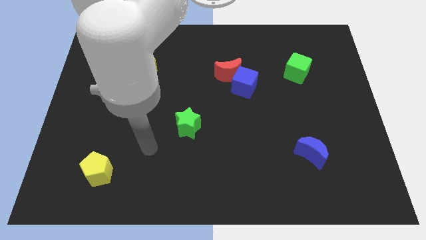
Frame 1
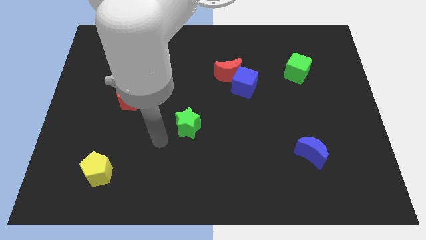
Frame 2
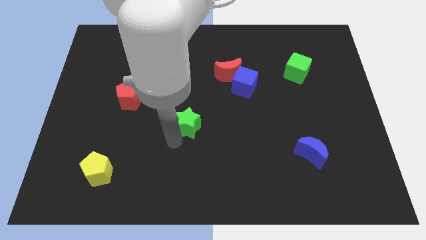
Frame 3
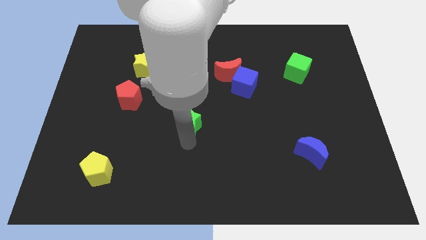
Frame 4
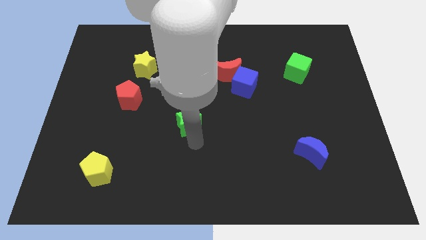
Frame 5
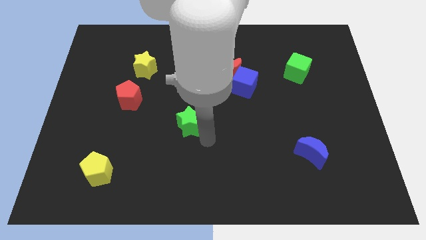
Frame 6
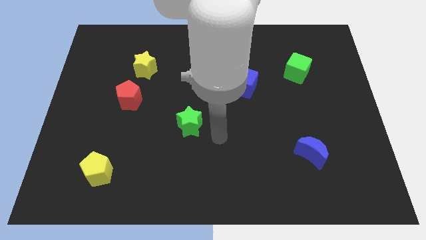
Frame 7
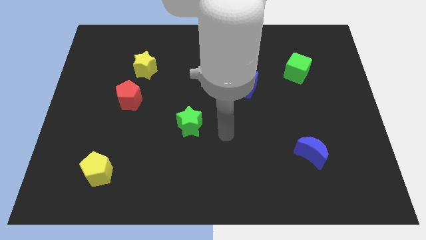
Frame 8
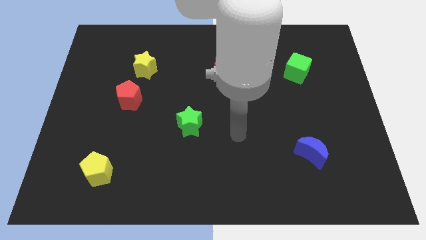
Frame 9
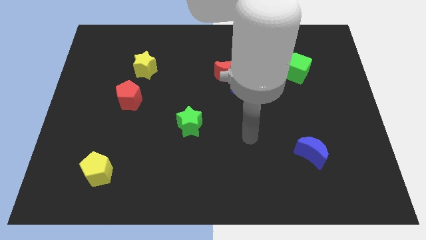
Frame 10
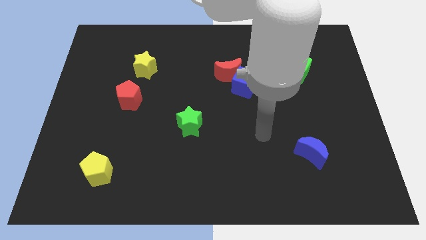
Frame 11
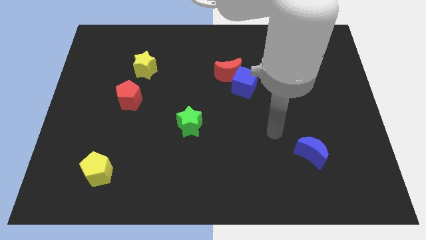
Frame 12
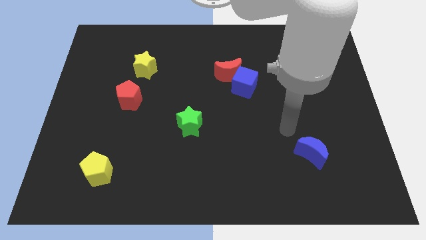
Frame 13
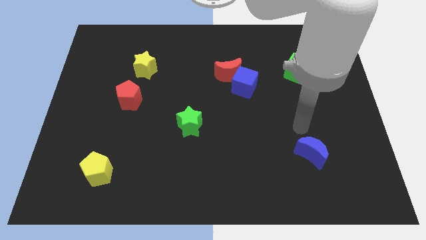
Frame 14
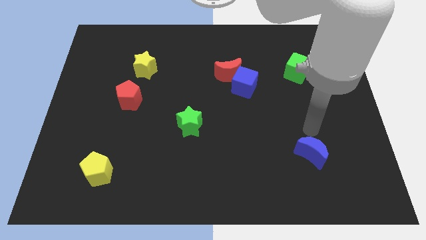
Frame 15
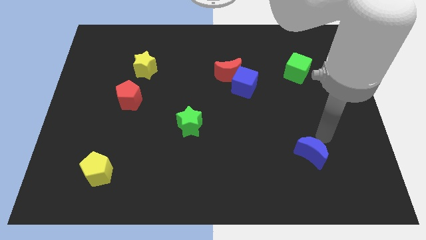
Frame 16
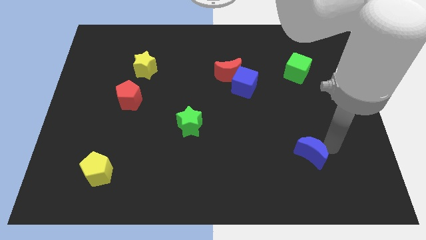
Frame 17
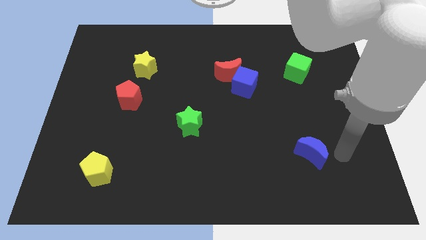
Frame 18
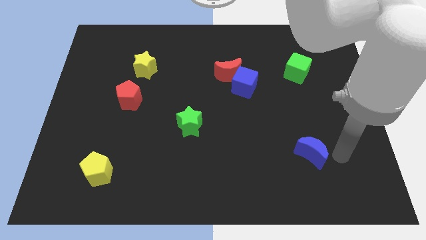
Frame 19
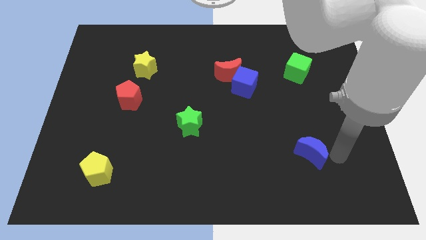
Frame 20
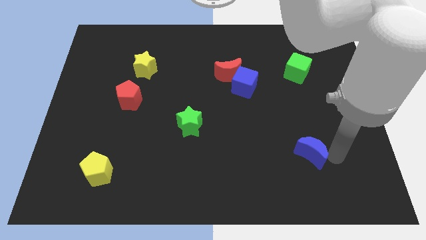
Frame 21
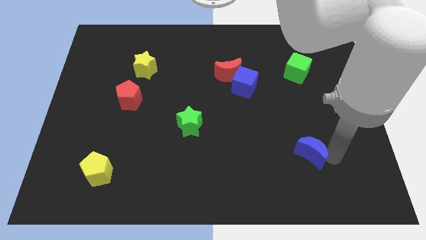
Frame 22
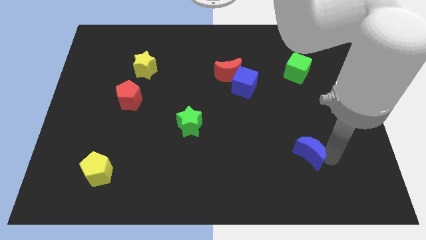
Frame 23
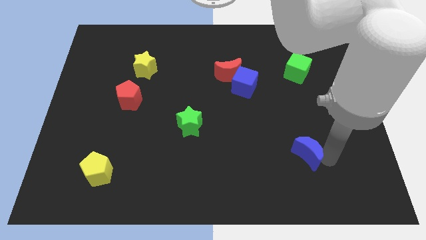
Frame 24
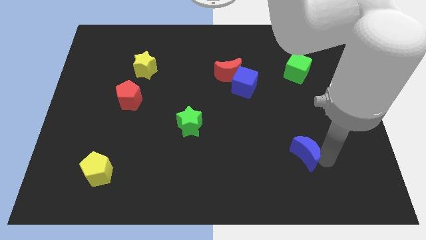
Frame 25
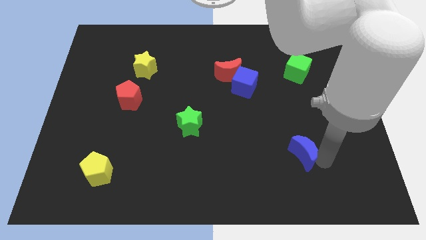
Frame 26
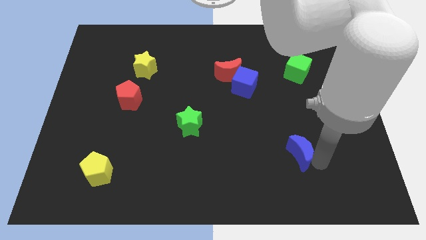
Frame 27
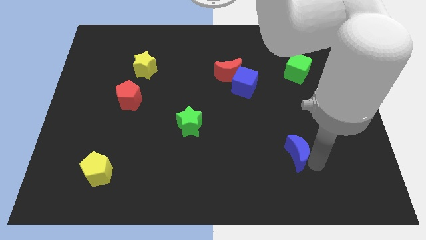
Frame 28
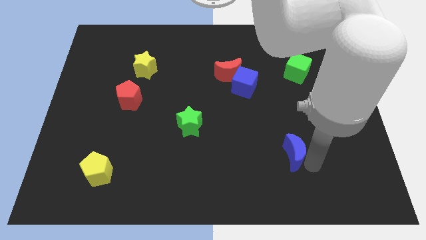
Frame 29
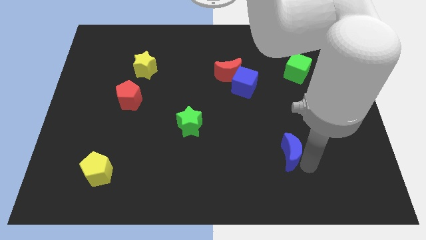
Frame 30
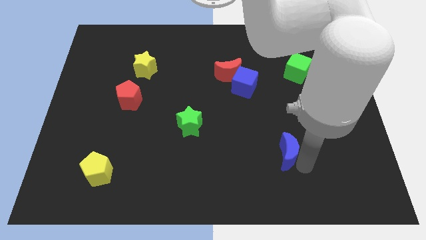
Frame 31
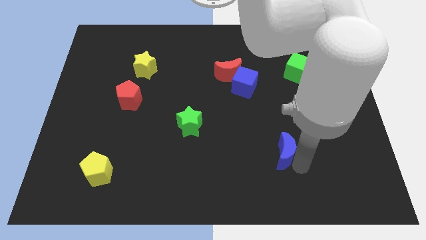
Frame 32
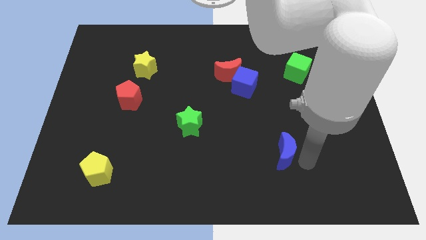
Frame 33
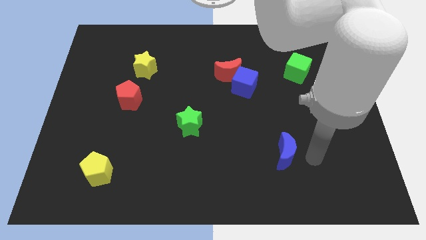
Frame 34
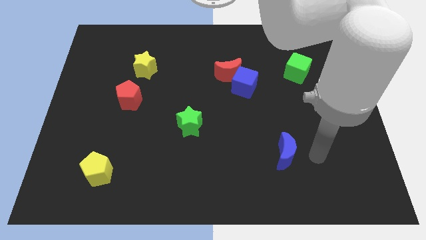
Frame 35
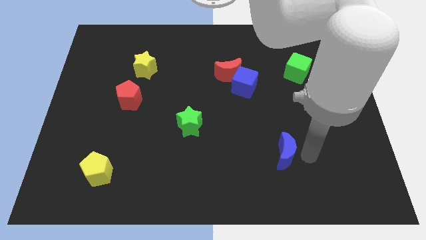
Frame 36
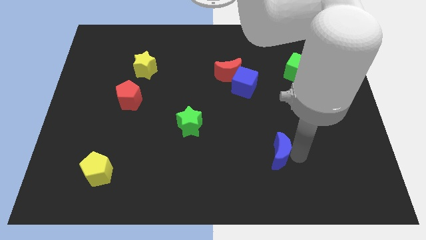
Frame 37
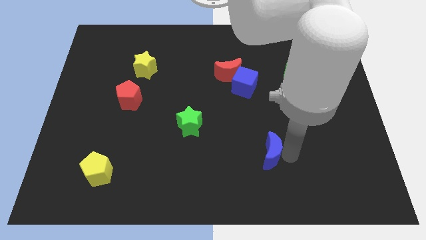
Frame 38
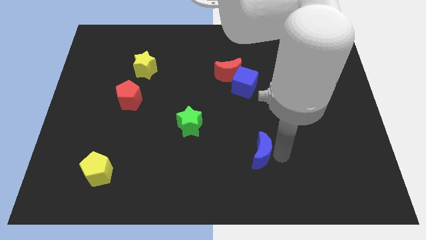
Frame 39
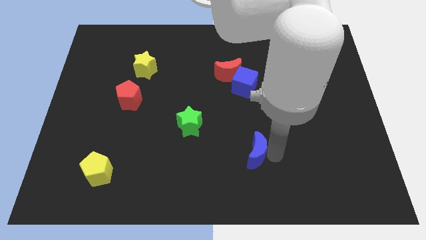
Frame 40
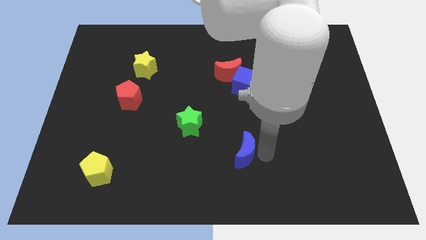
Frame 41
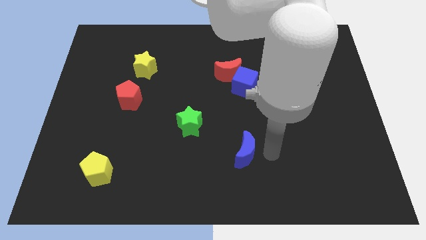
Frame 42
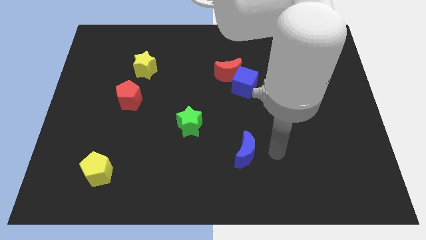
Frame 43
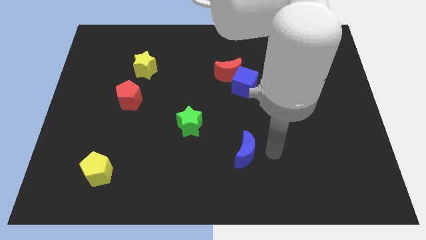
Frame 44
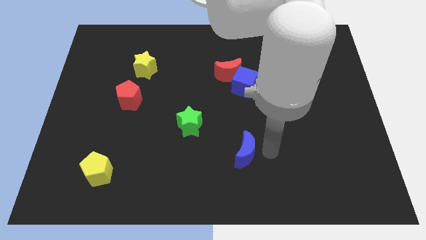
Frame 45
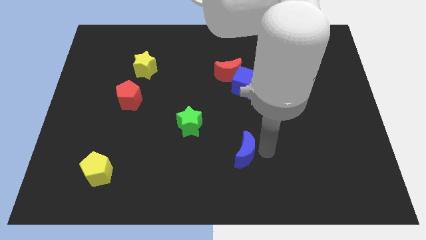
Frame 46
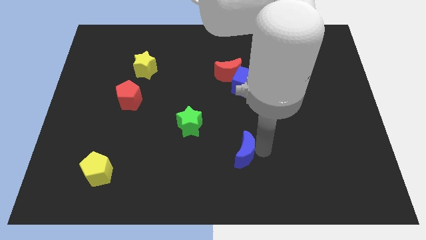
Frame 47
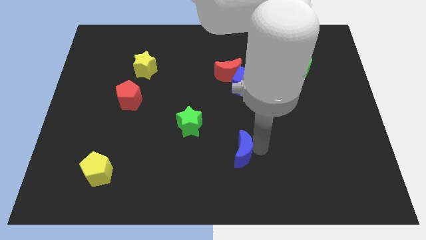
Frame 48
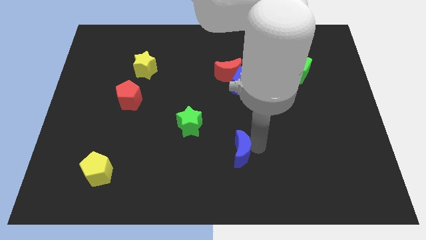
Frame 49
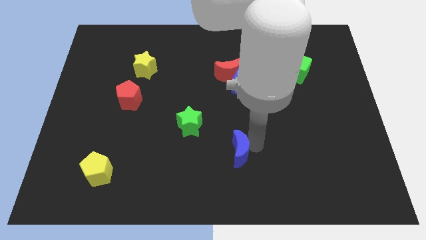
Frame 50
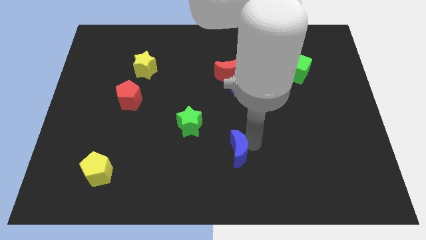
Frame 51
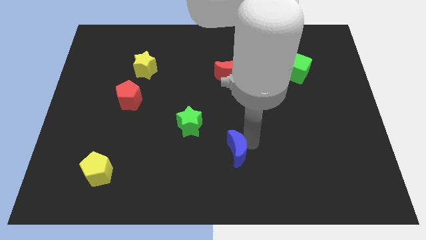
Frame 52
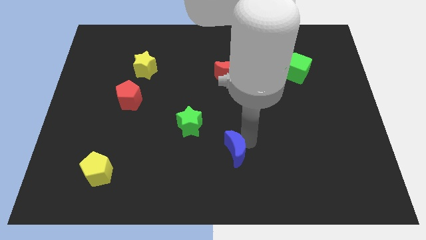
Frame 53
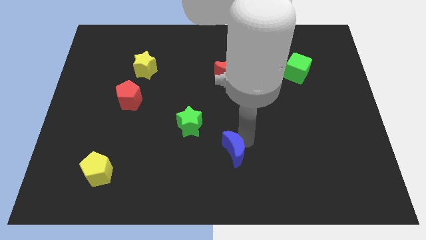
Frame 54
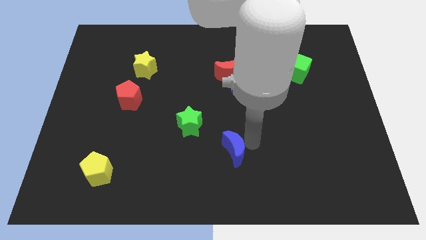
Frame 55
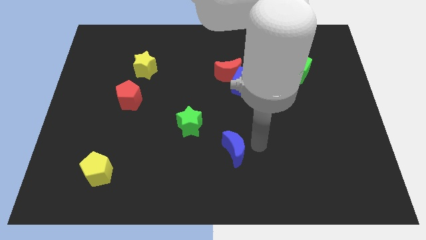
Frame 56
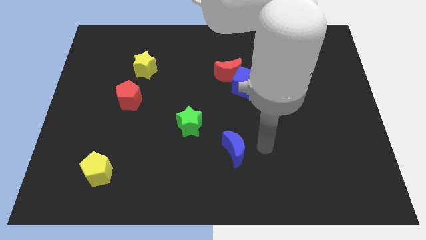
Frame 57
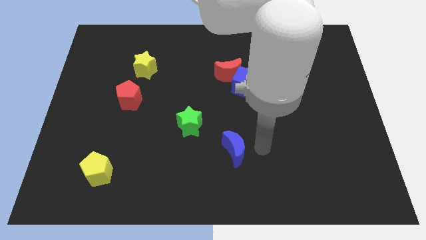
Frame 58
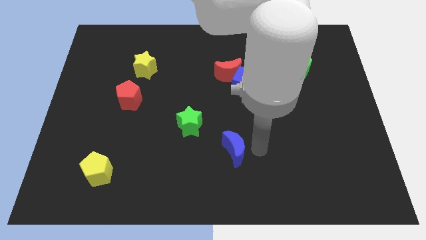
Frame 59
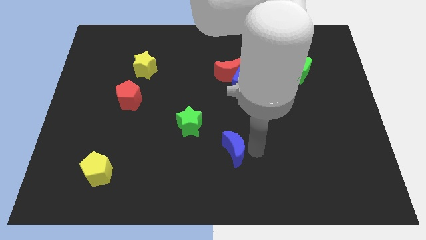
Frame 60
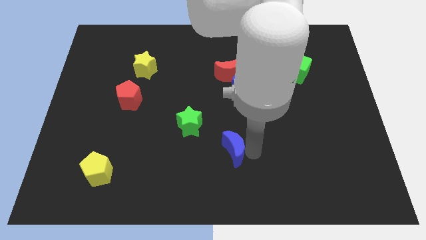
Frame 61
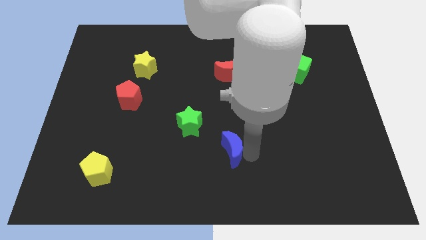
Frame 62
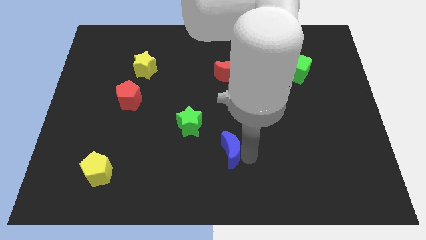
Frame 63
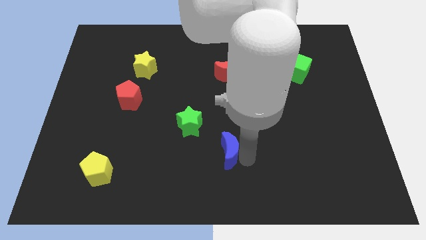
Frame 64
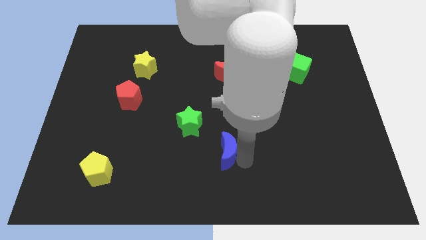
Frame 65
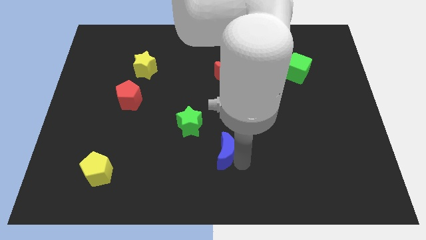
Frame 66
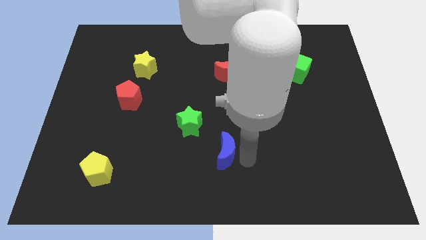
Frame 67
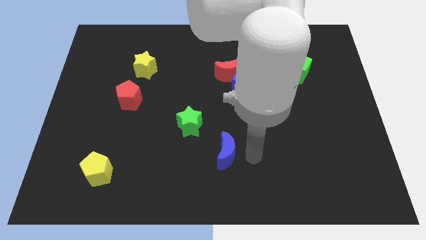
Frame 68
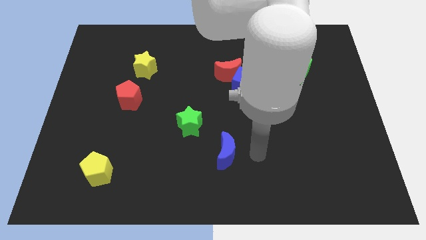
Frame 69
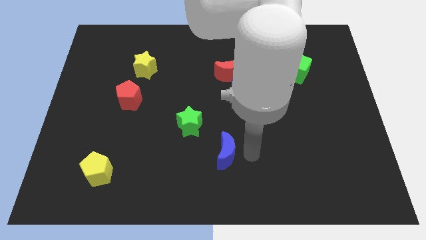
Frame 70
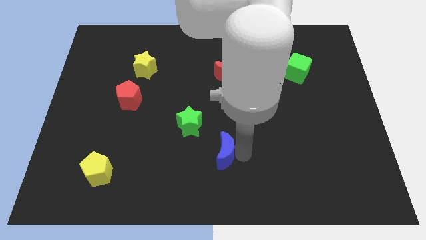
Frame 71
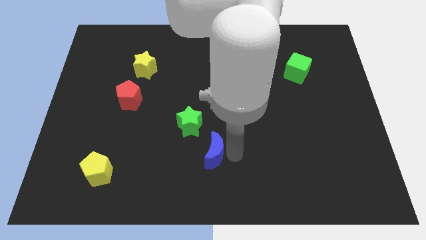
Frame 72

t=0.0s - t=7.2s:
slide the blue moon to the left

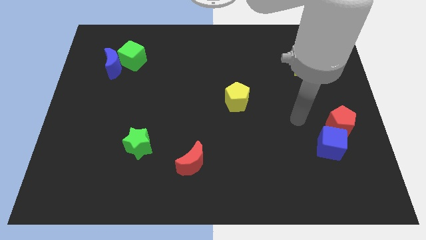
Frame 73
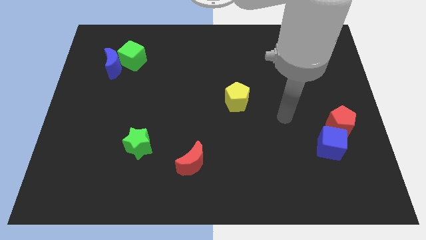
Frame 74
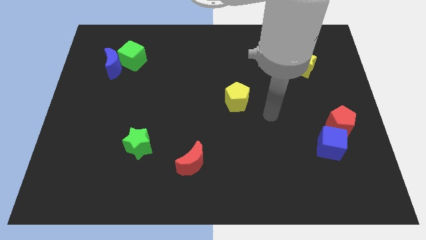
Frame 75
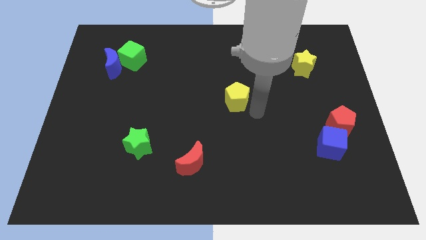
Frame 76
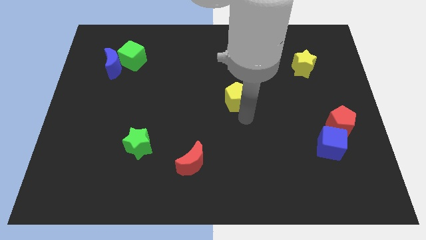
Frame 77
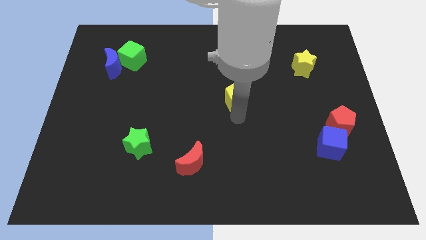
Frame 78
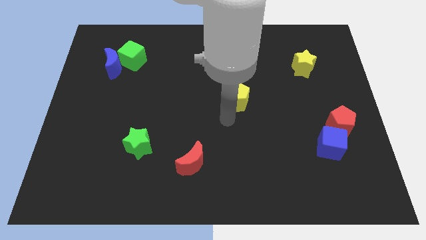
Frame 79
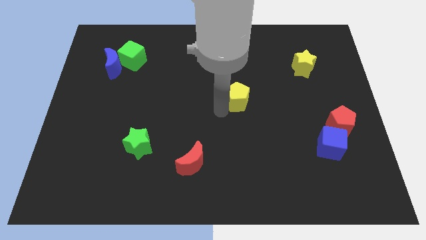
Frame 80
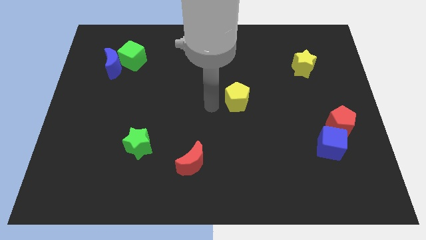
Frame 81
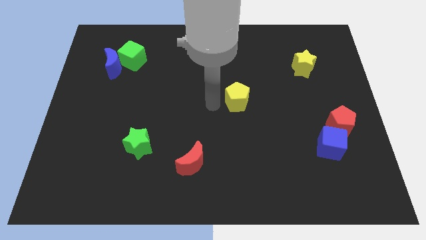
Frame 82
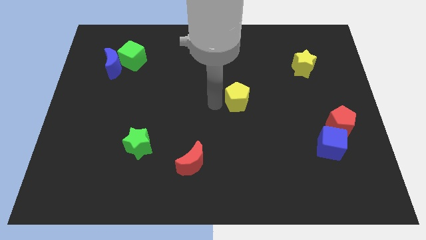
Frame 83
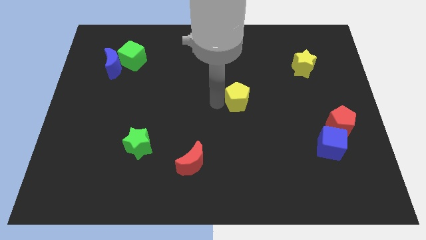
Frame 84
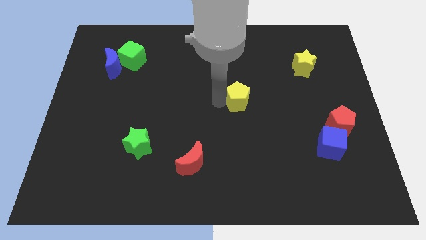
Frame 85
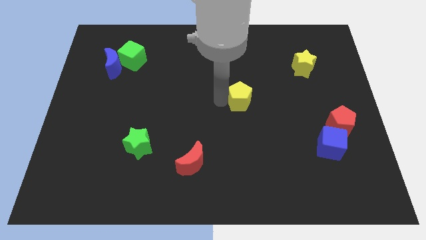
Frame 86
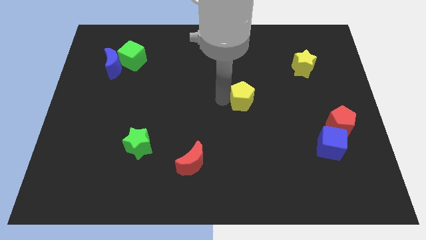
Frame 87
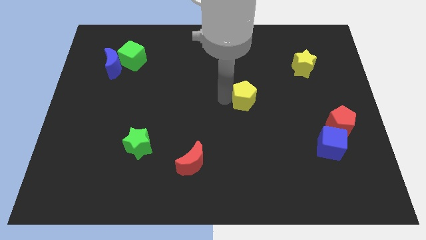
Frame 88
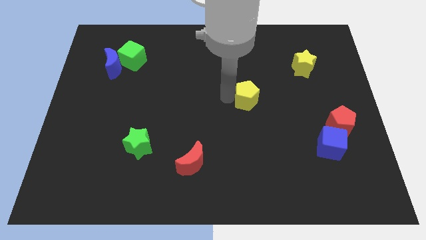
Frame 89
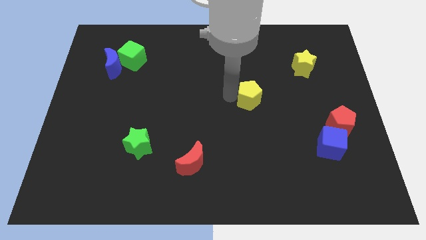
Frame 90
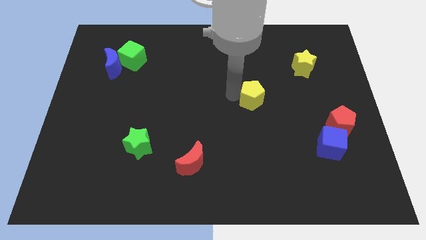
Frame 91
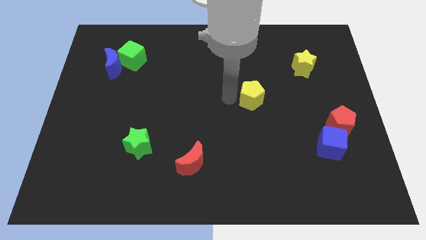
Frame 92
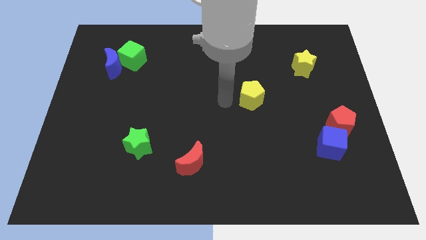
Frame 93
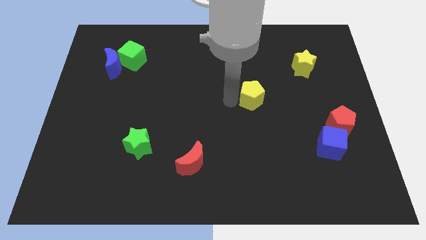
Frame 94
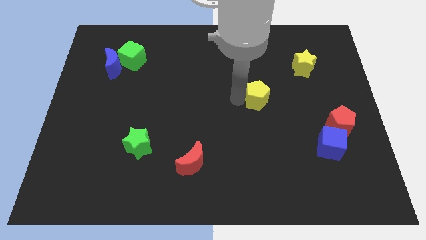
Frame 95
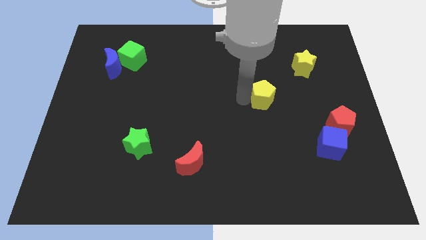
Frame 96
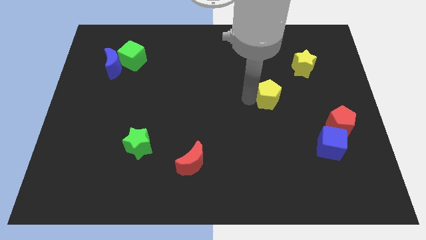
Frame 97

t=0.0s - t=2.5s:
slightly push the yellow pentagon right
